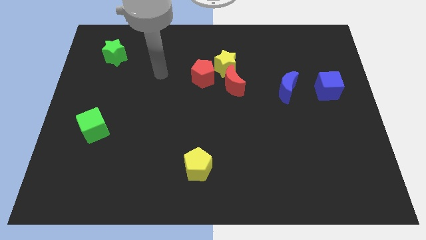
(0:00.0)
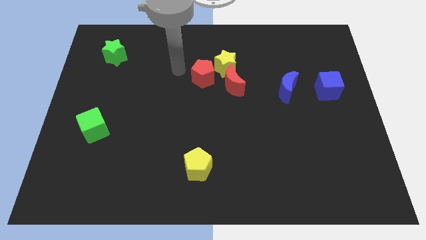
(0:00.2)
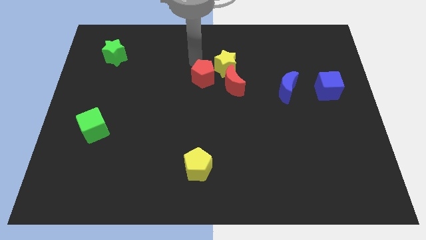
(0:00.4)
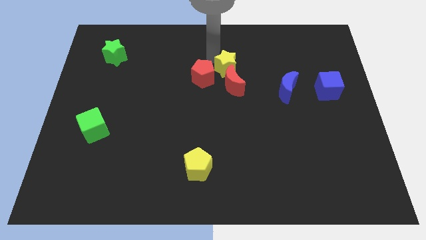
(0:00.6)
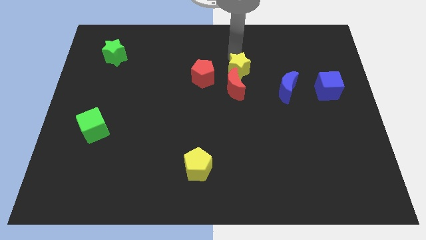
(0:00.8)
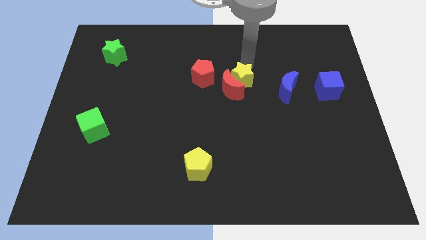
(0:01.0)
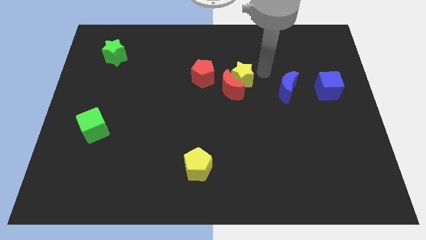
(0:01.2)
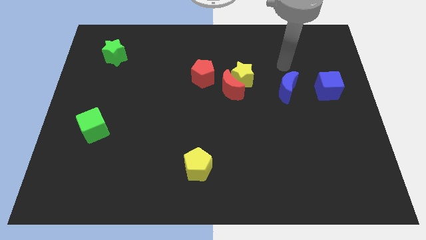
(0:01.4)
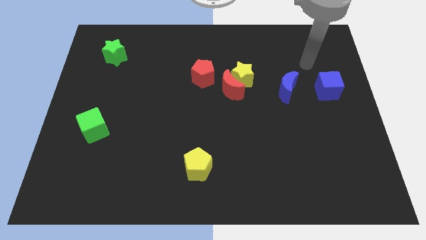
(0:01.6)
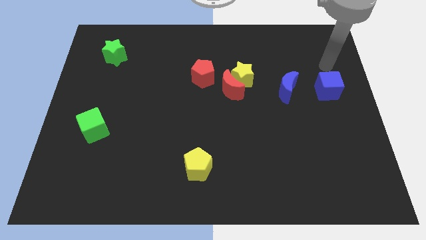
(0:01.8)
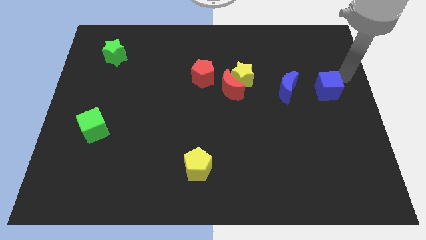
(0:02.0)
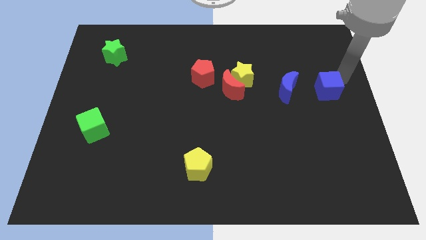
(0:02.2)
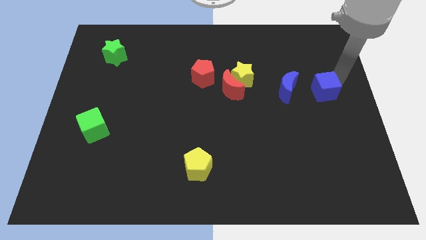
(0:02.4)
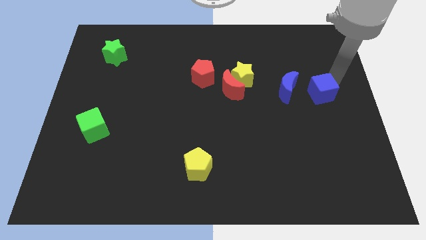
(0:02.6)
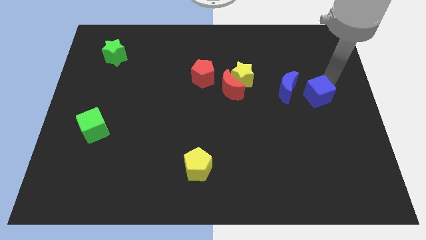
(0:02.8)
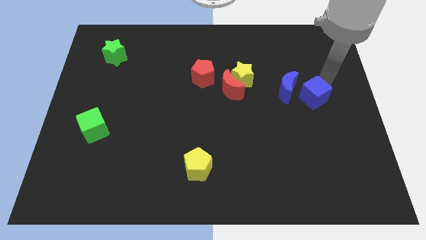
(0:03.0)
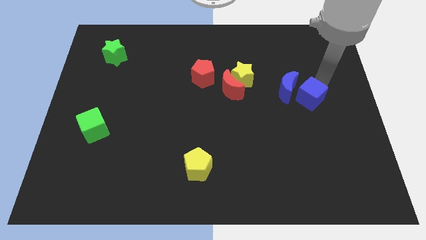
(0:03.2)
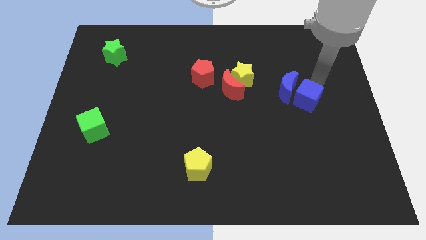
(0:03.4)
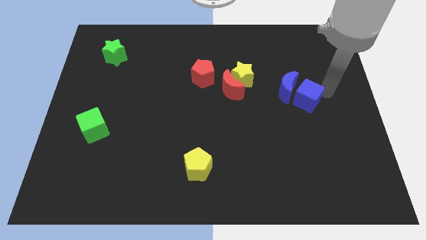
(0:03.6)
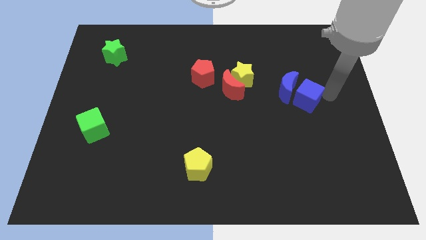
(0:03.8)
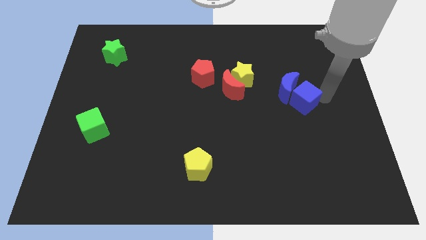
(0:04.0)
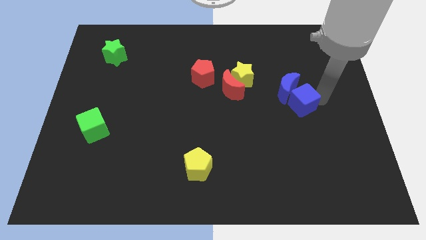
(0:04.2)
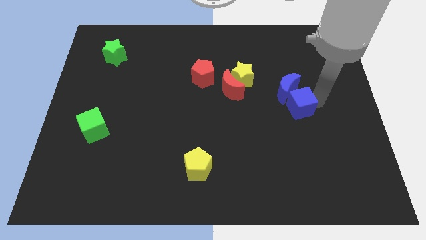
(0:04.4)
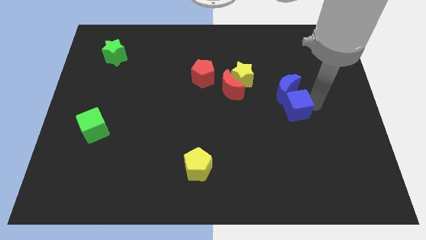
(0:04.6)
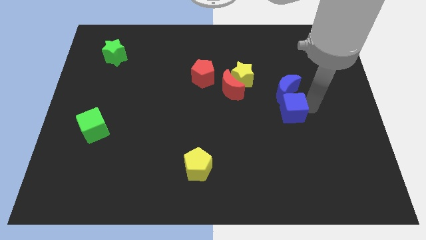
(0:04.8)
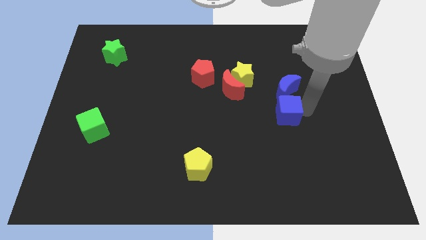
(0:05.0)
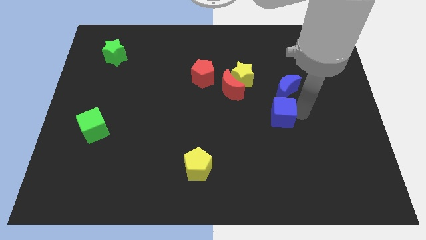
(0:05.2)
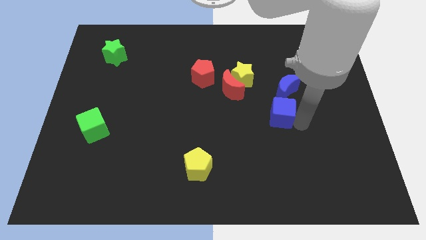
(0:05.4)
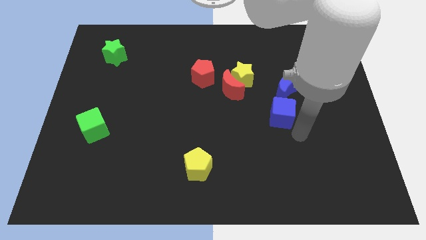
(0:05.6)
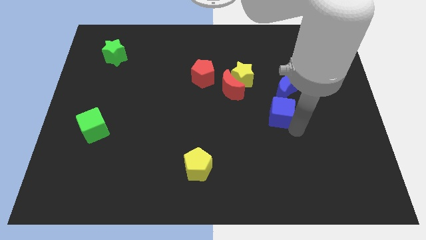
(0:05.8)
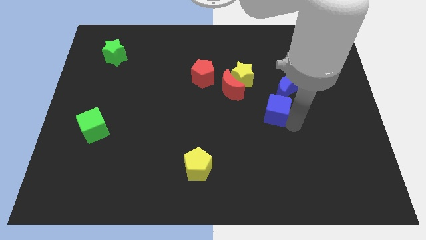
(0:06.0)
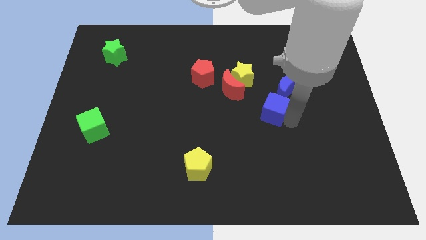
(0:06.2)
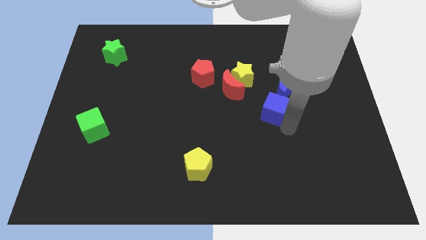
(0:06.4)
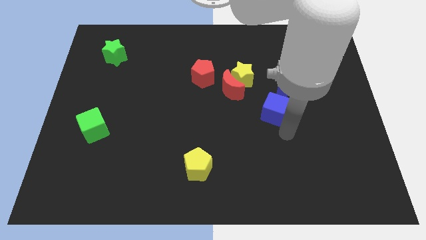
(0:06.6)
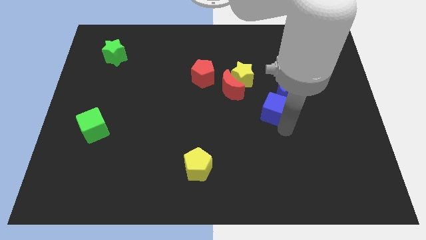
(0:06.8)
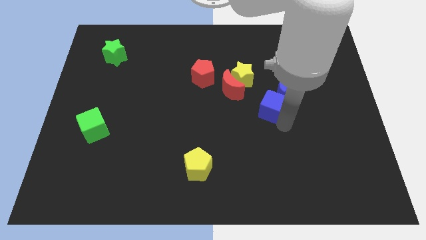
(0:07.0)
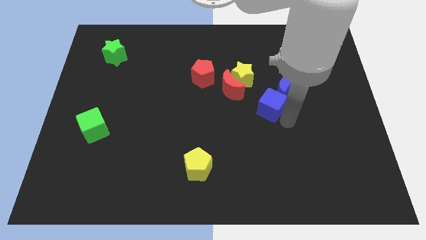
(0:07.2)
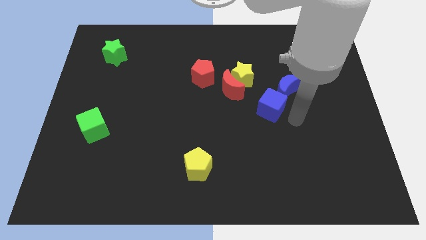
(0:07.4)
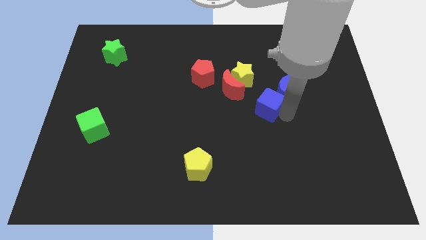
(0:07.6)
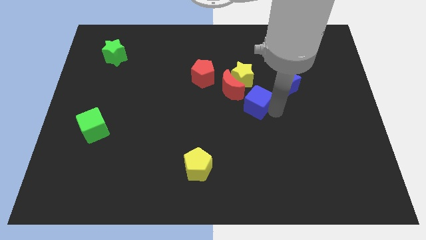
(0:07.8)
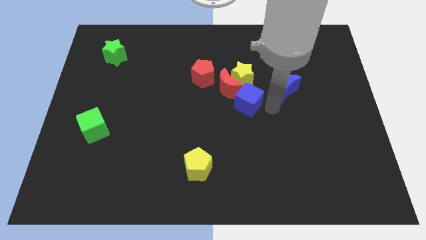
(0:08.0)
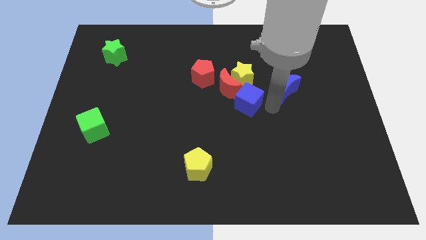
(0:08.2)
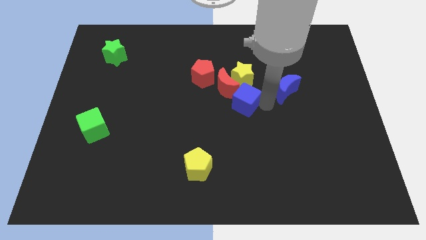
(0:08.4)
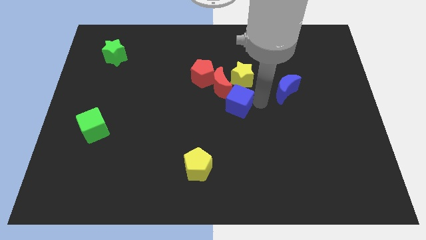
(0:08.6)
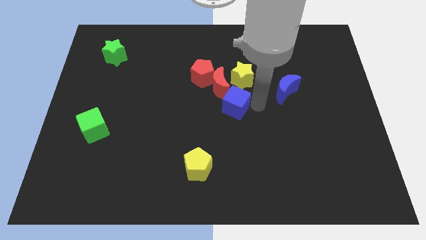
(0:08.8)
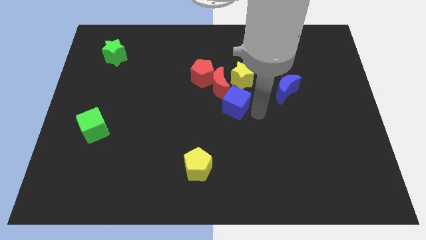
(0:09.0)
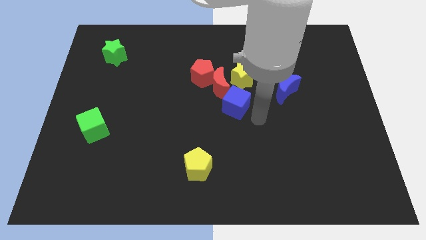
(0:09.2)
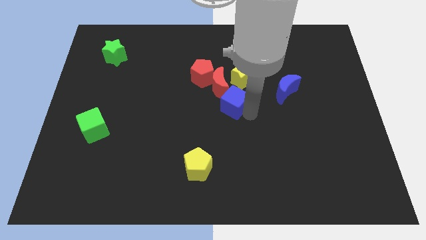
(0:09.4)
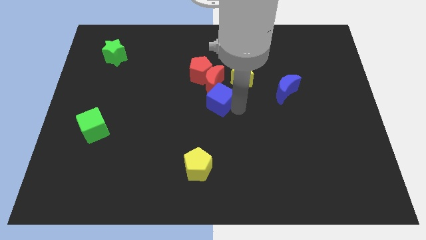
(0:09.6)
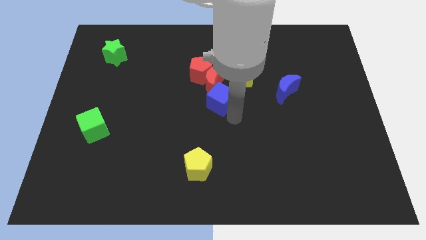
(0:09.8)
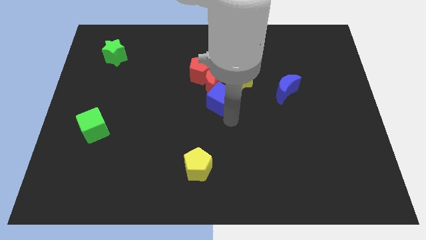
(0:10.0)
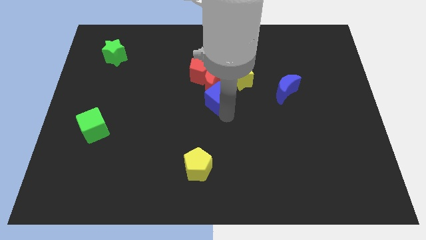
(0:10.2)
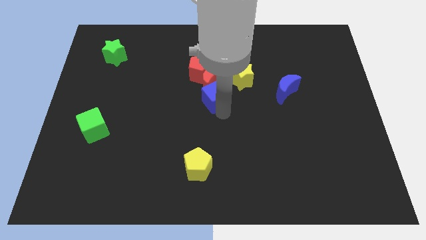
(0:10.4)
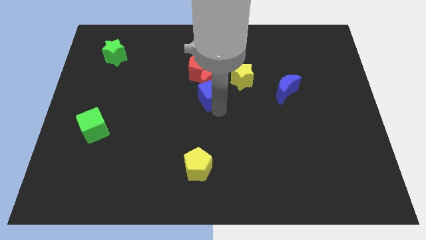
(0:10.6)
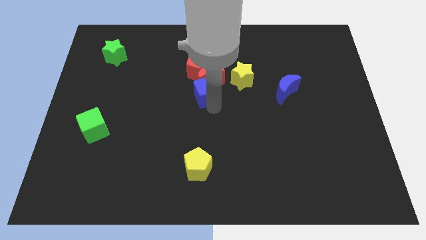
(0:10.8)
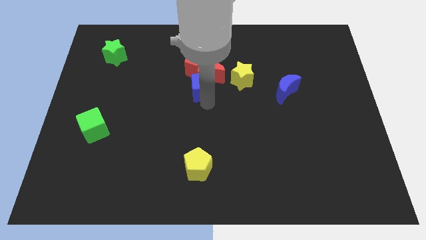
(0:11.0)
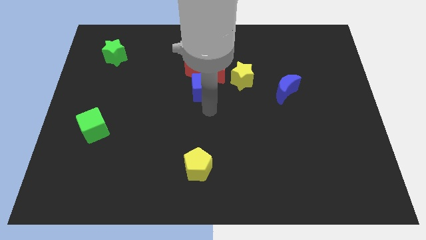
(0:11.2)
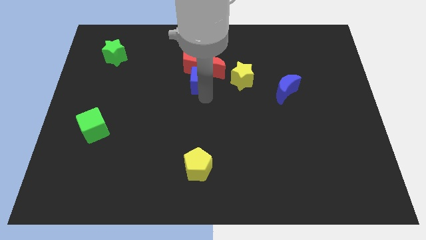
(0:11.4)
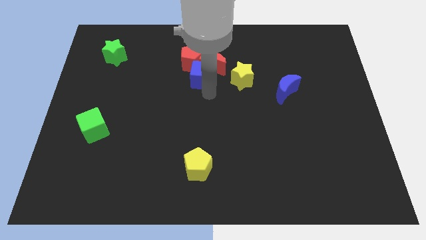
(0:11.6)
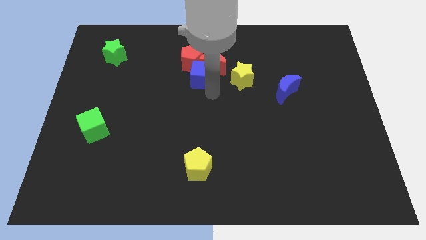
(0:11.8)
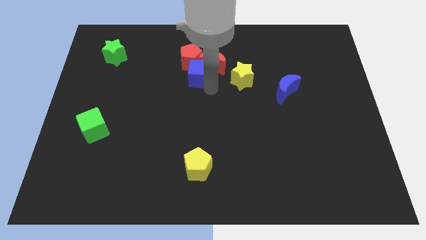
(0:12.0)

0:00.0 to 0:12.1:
slide the blue cube next to the red pentagon

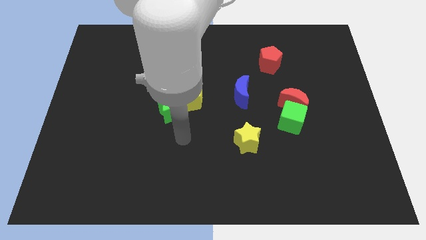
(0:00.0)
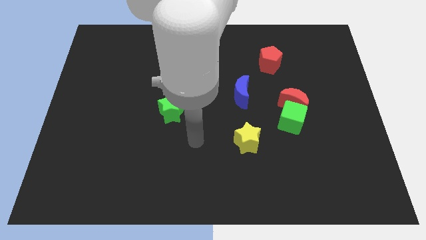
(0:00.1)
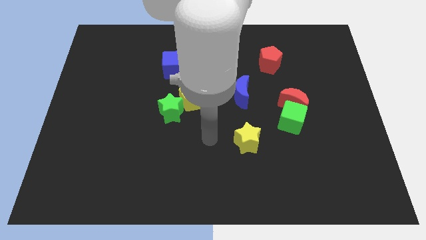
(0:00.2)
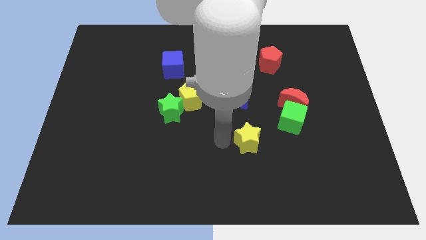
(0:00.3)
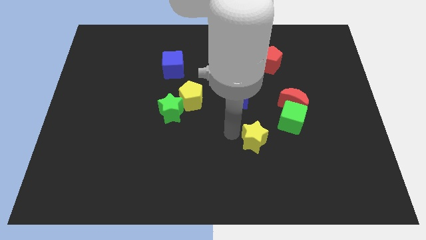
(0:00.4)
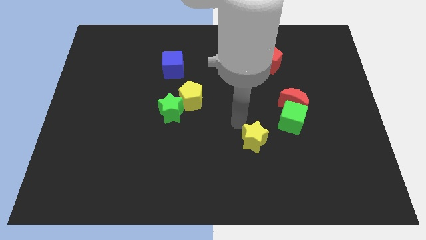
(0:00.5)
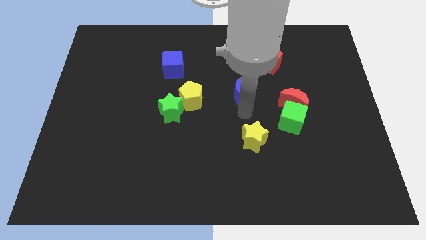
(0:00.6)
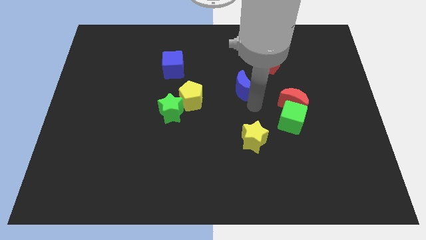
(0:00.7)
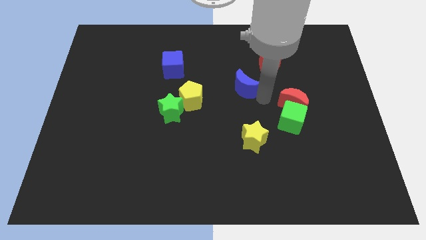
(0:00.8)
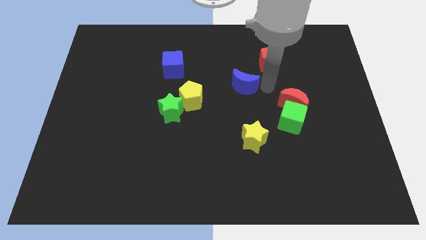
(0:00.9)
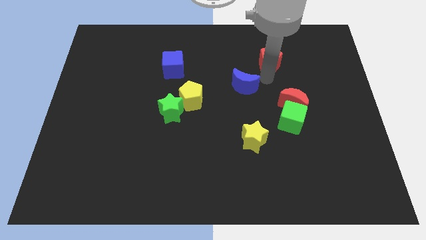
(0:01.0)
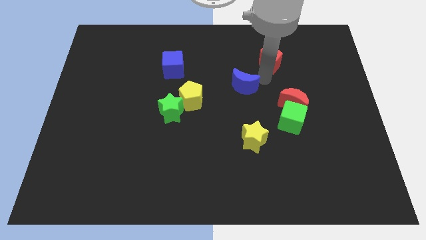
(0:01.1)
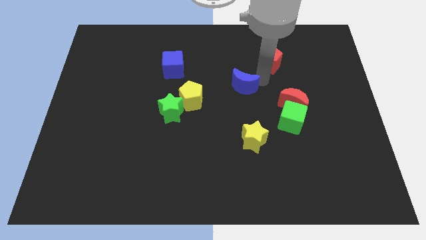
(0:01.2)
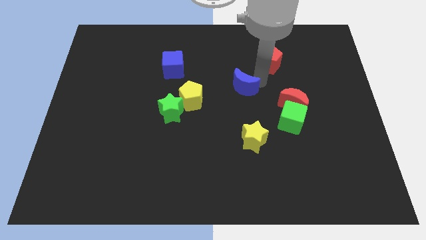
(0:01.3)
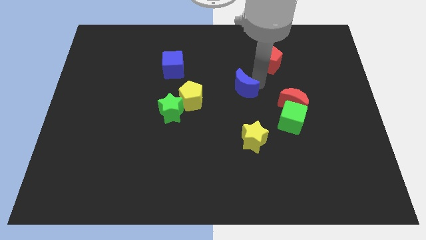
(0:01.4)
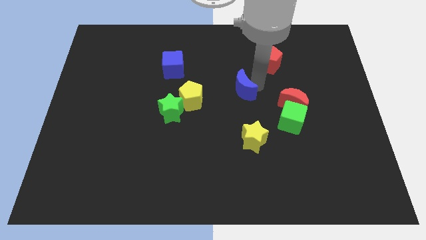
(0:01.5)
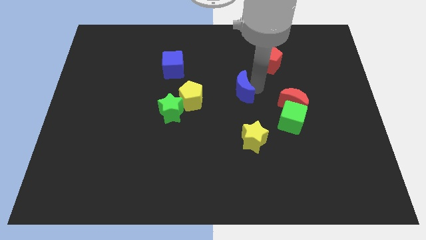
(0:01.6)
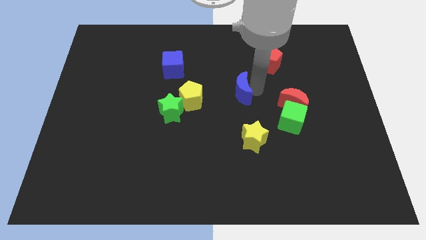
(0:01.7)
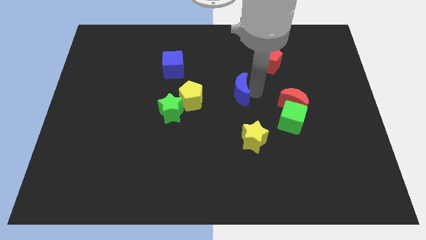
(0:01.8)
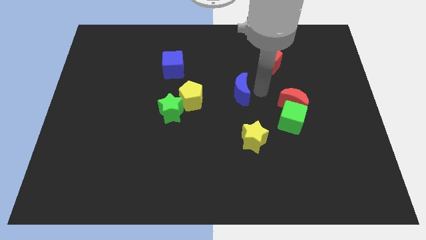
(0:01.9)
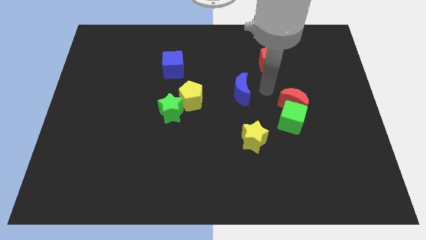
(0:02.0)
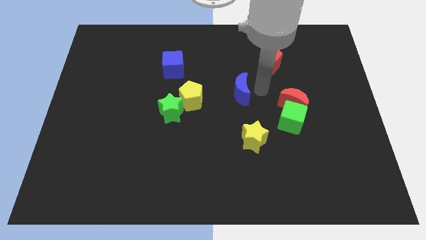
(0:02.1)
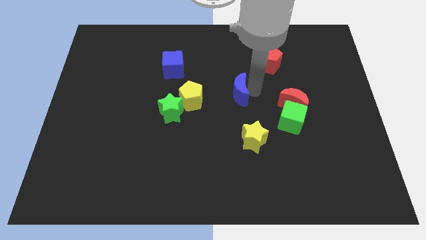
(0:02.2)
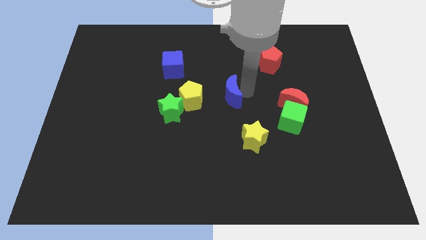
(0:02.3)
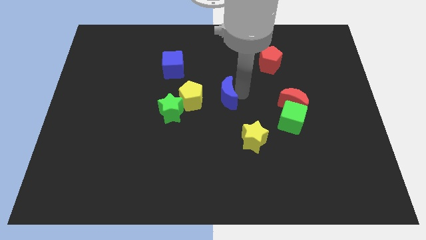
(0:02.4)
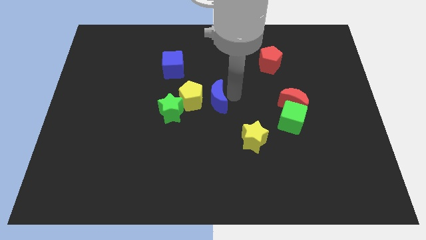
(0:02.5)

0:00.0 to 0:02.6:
slide the blue moon towards the yellow pentagon
